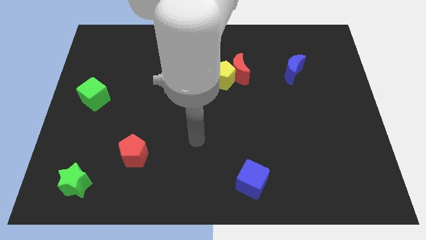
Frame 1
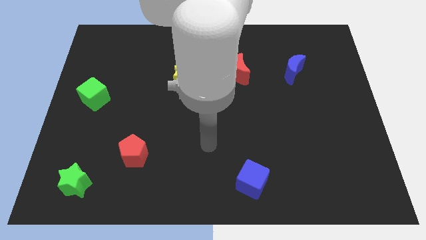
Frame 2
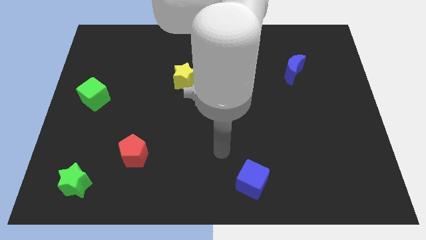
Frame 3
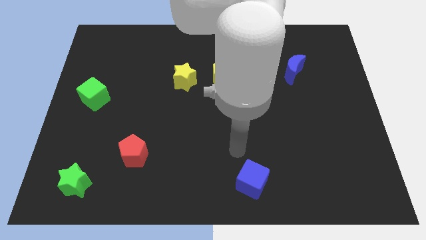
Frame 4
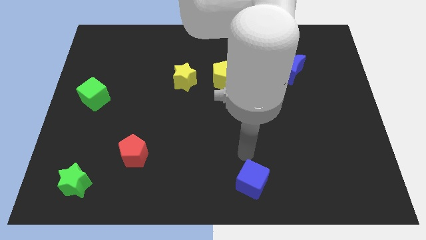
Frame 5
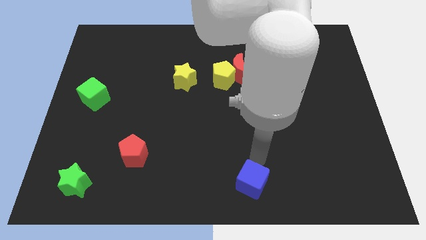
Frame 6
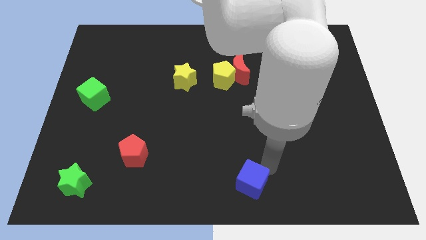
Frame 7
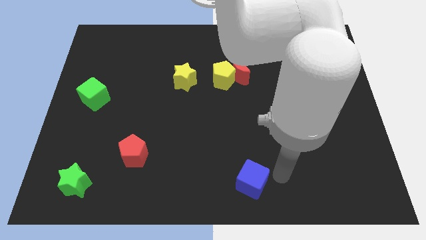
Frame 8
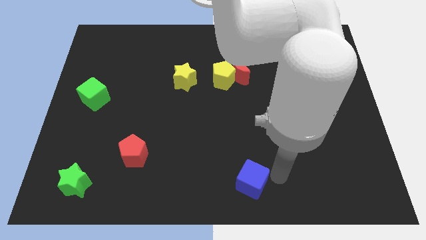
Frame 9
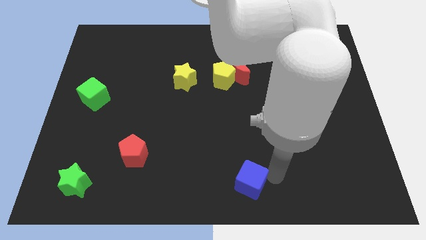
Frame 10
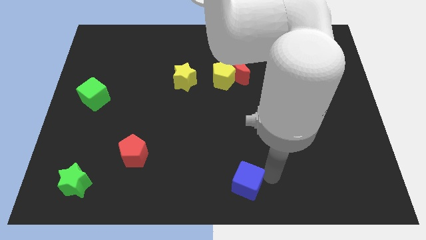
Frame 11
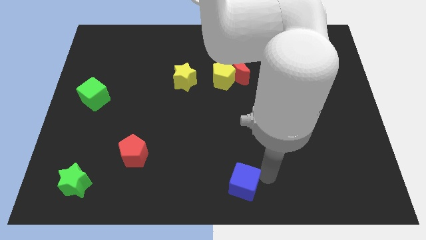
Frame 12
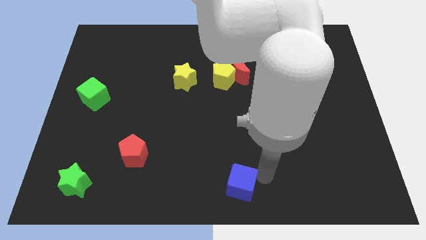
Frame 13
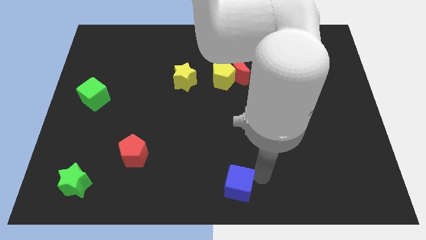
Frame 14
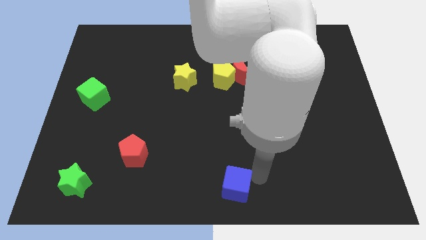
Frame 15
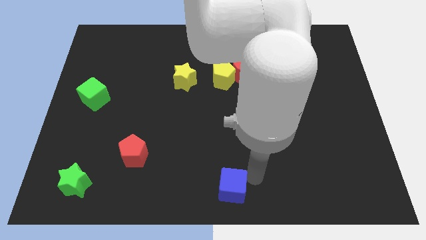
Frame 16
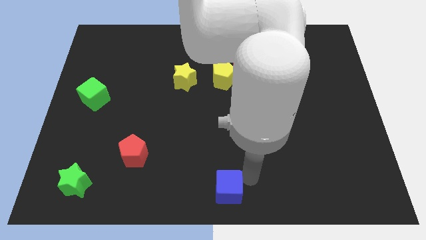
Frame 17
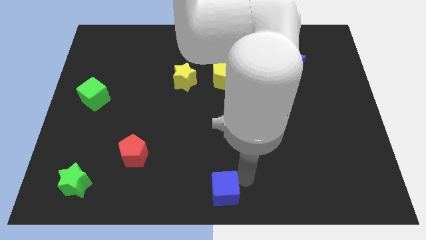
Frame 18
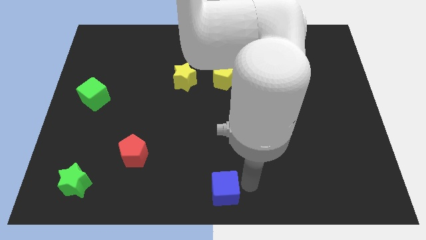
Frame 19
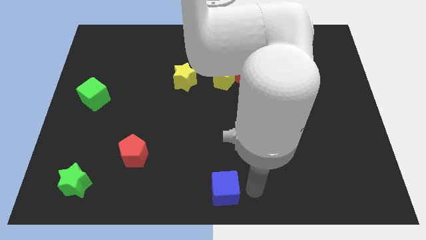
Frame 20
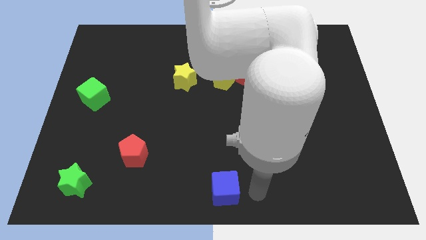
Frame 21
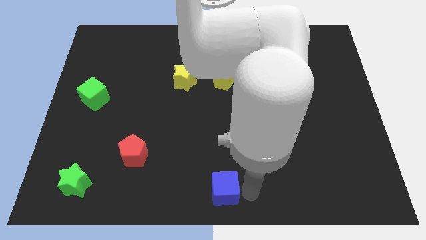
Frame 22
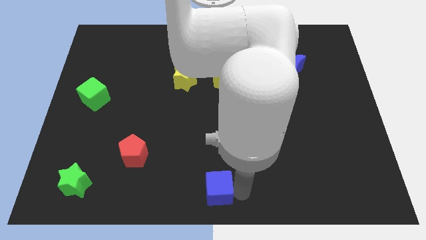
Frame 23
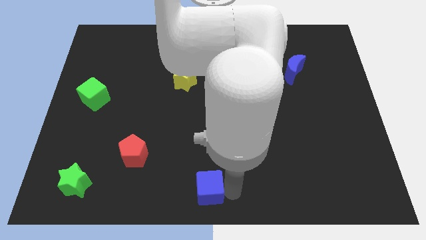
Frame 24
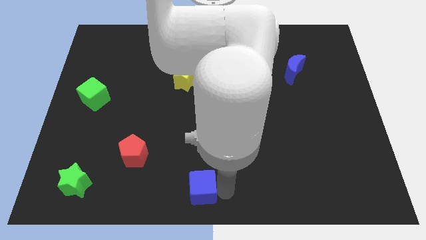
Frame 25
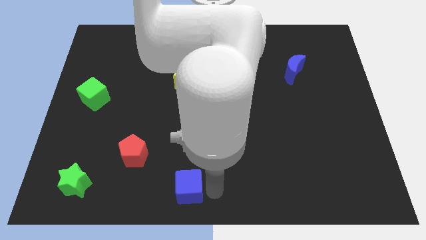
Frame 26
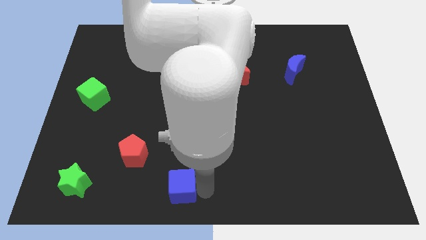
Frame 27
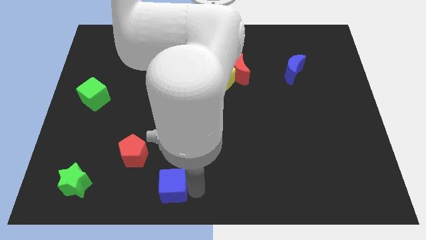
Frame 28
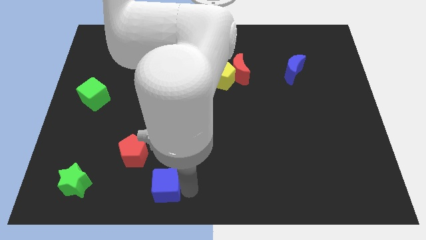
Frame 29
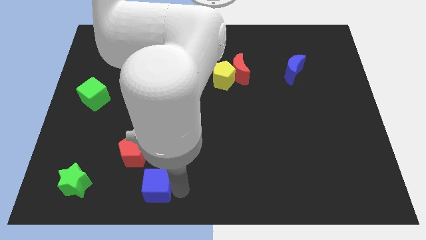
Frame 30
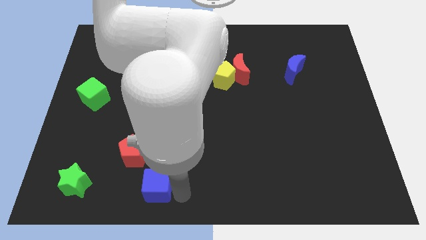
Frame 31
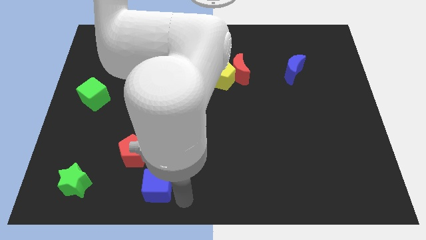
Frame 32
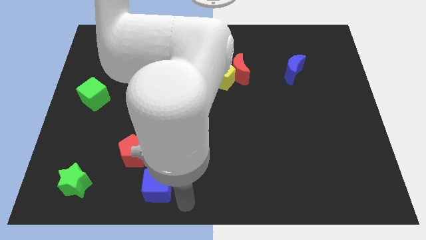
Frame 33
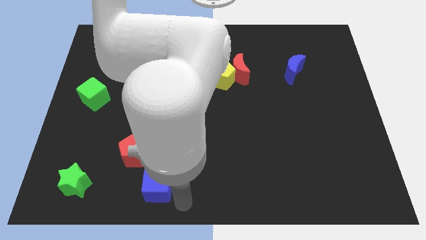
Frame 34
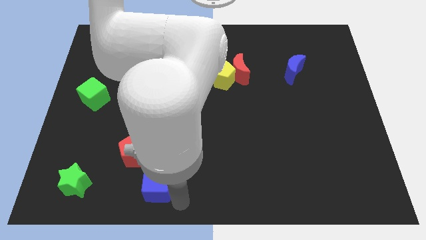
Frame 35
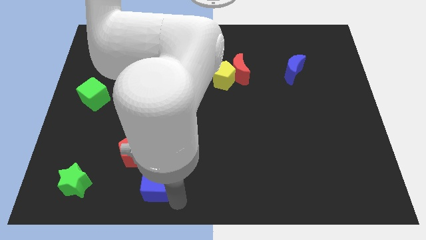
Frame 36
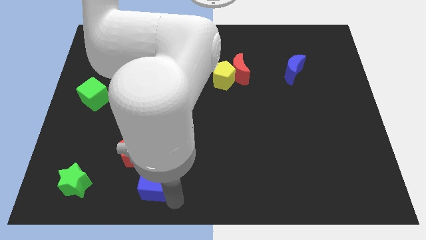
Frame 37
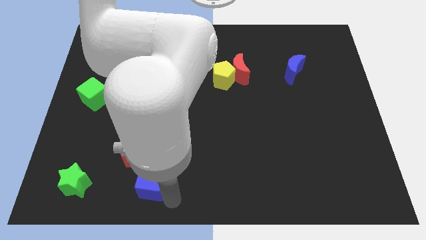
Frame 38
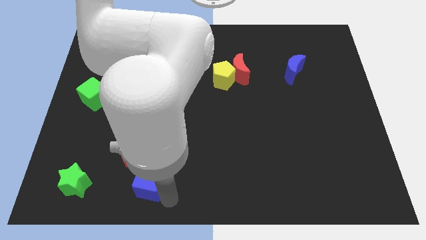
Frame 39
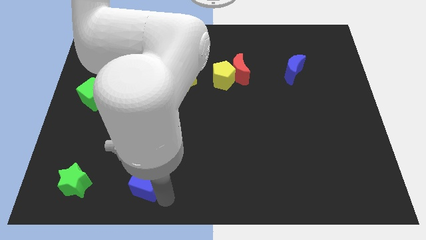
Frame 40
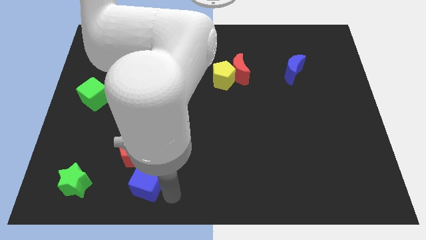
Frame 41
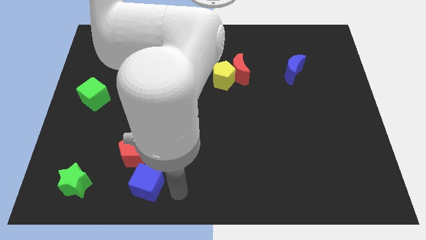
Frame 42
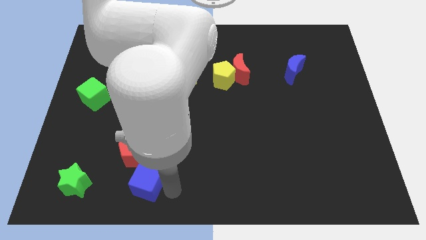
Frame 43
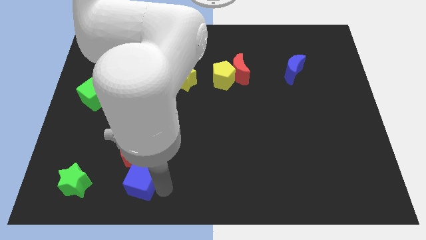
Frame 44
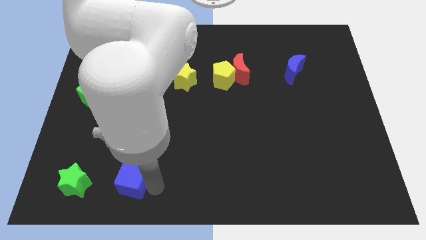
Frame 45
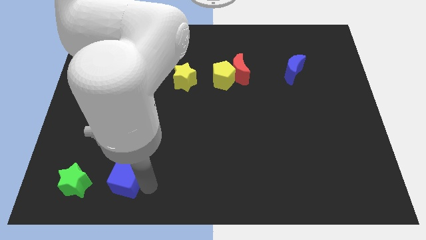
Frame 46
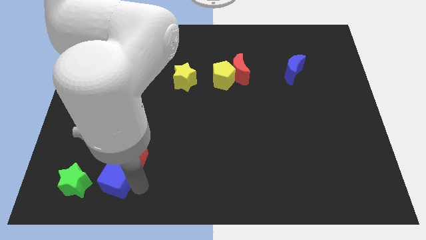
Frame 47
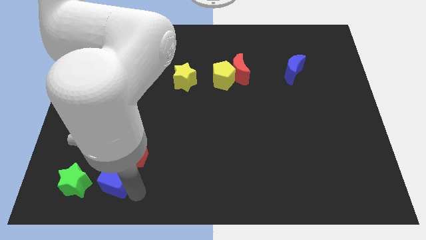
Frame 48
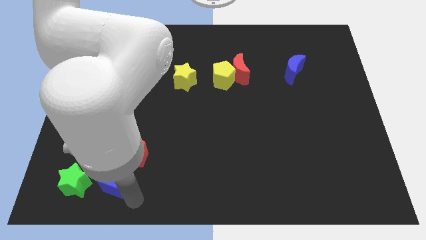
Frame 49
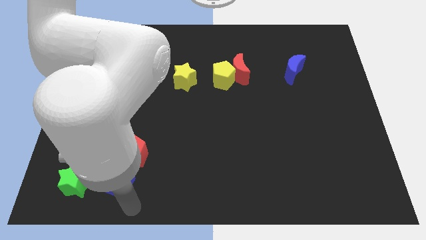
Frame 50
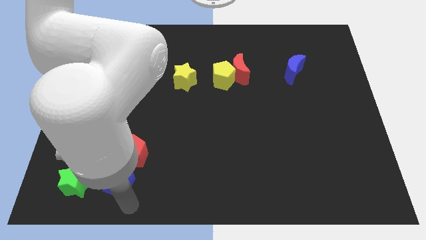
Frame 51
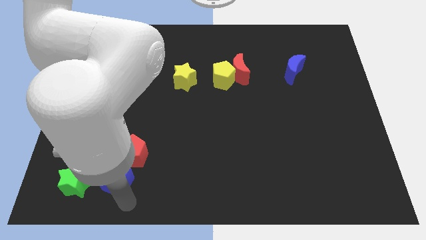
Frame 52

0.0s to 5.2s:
slide the blue cube diagonally up and to the right of the green star

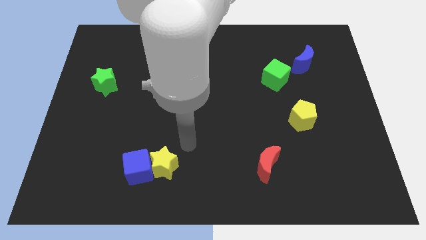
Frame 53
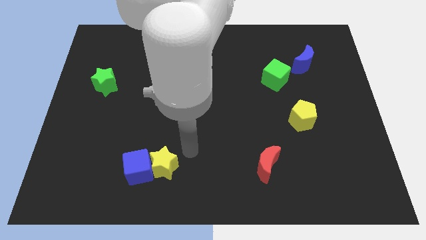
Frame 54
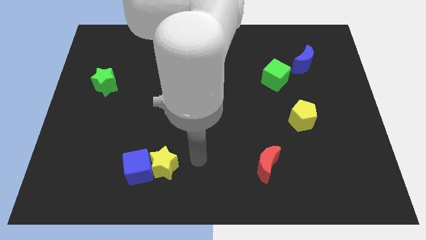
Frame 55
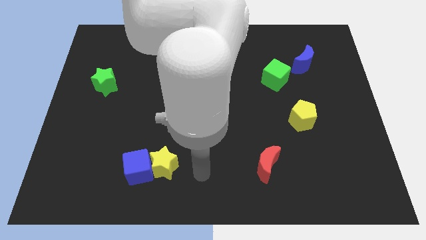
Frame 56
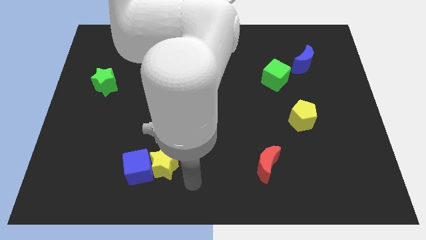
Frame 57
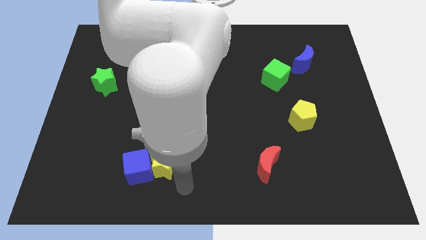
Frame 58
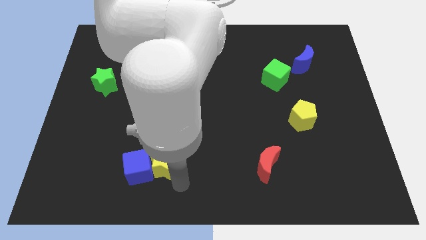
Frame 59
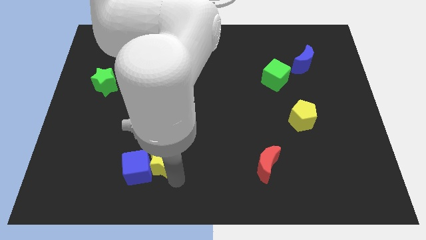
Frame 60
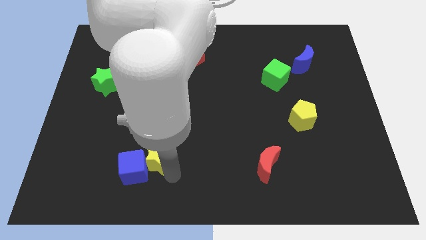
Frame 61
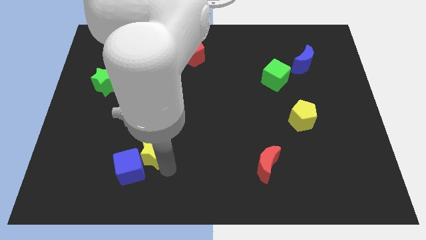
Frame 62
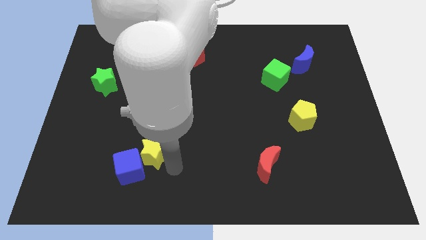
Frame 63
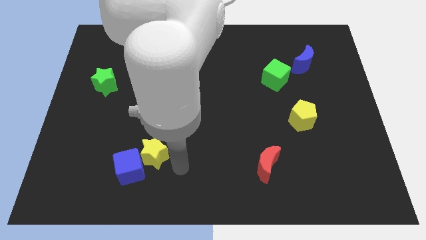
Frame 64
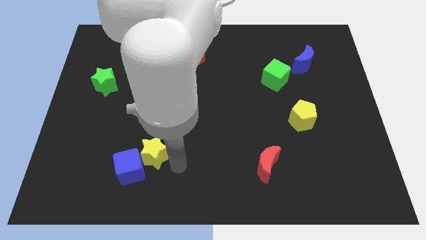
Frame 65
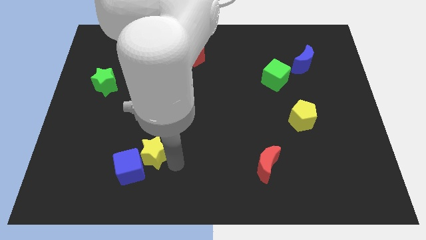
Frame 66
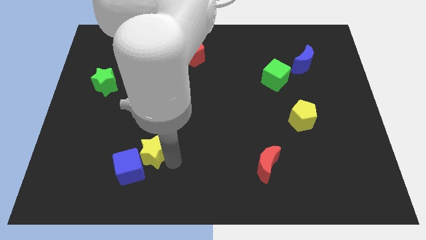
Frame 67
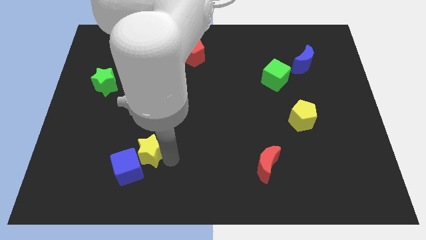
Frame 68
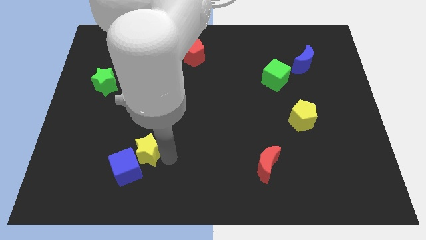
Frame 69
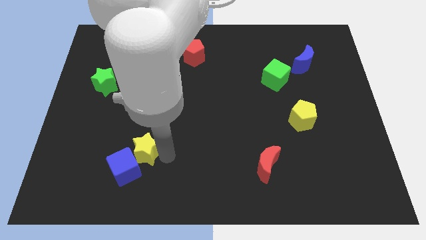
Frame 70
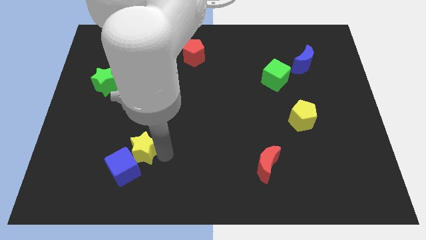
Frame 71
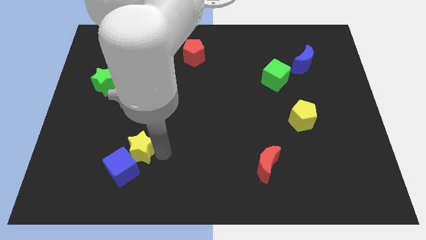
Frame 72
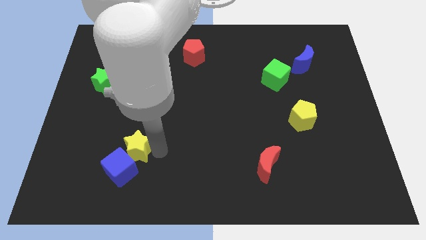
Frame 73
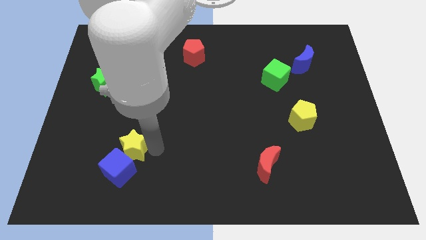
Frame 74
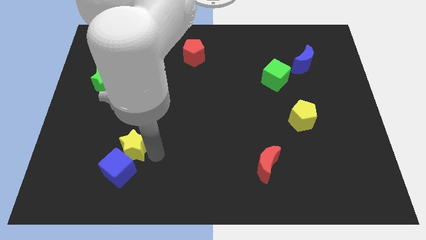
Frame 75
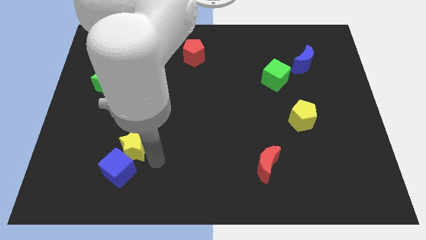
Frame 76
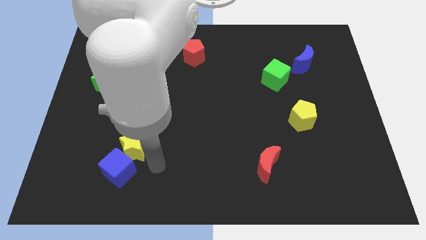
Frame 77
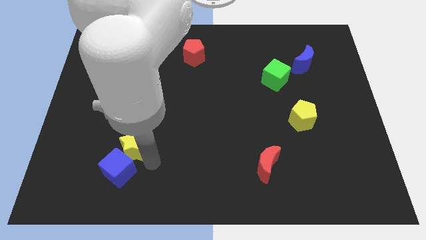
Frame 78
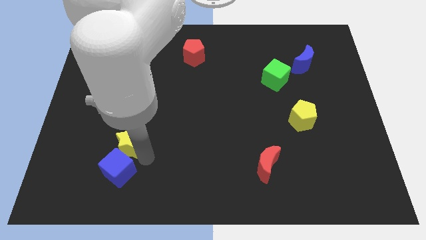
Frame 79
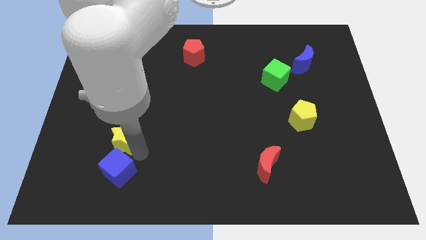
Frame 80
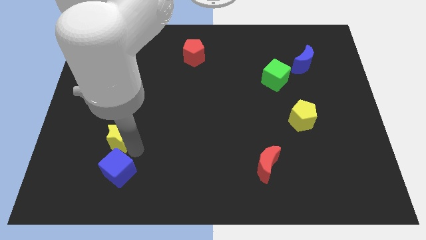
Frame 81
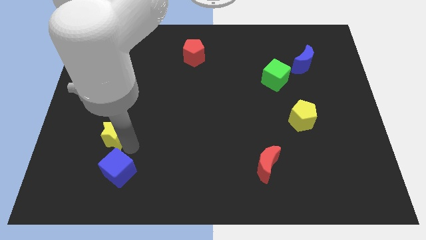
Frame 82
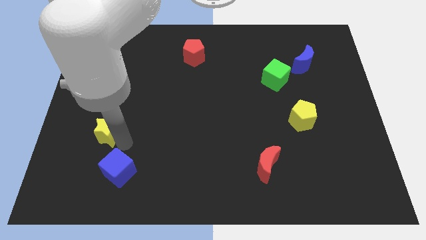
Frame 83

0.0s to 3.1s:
put the yellow star below the green star
